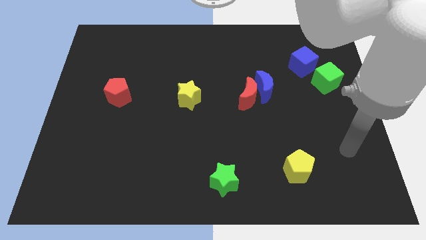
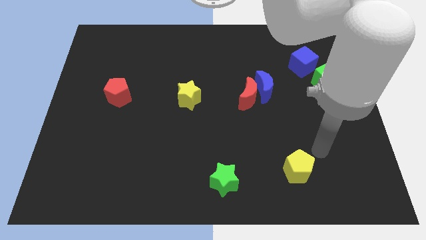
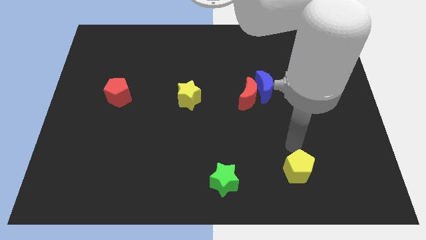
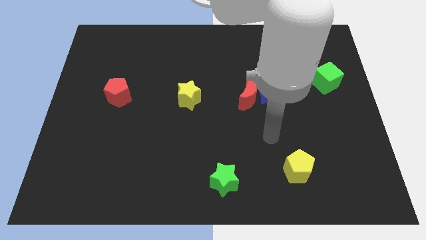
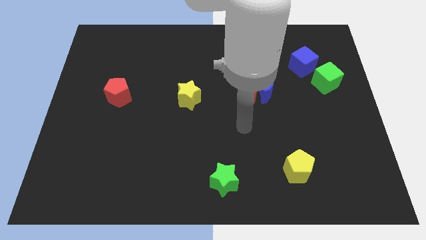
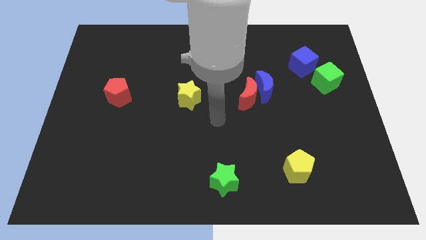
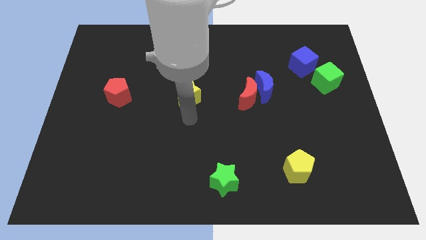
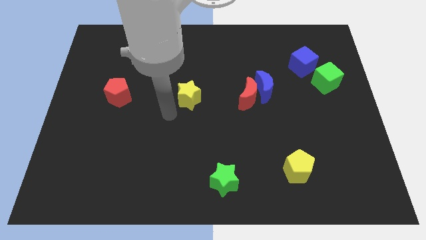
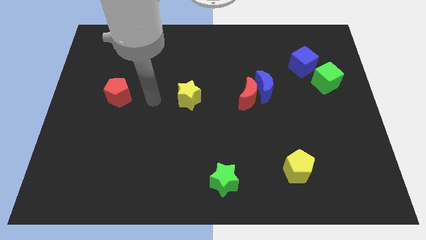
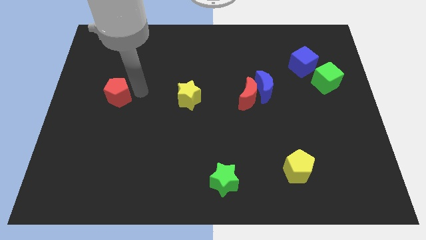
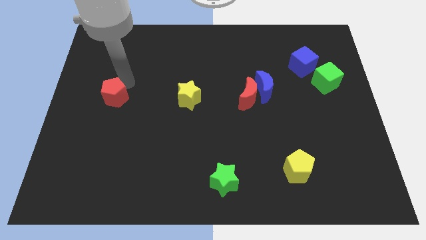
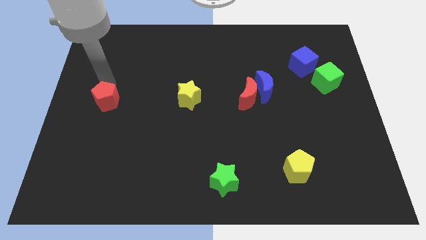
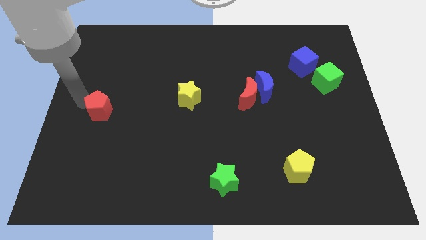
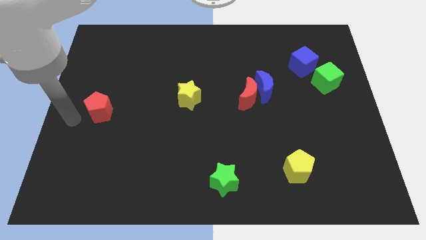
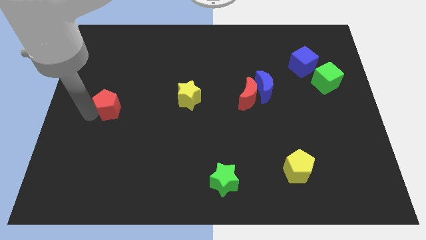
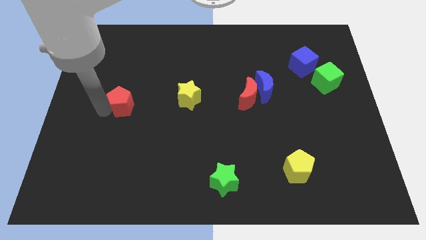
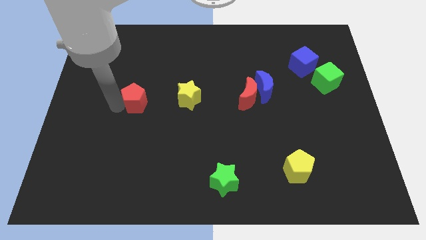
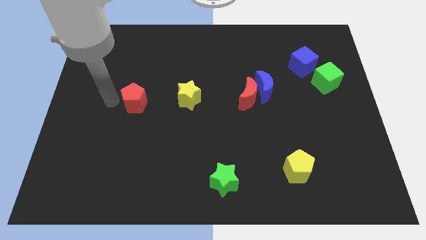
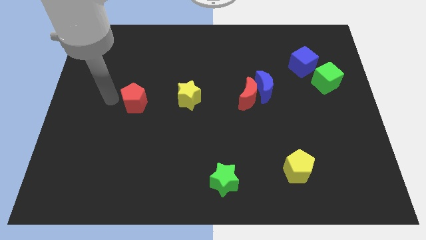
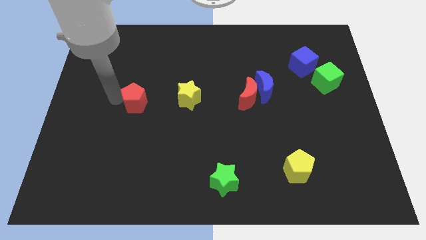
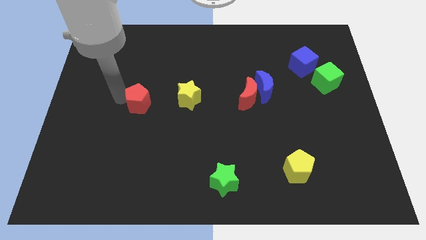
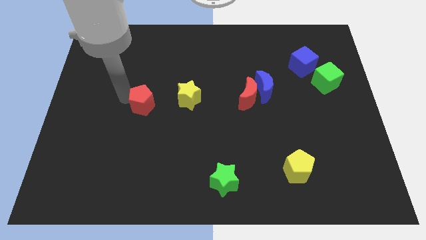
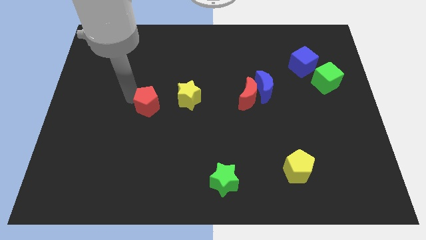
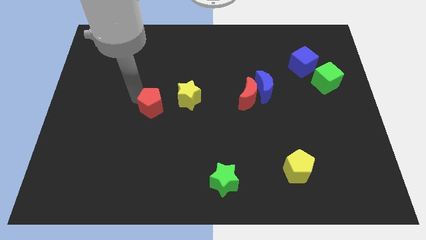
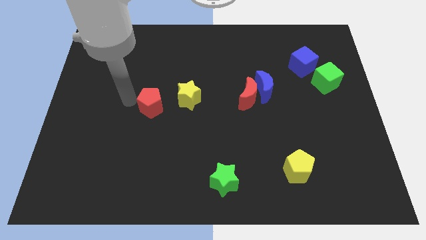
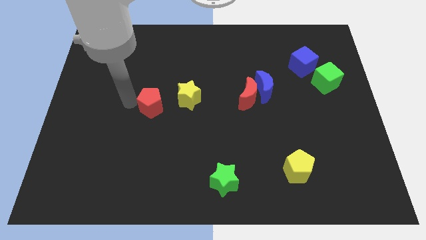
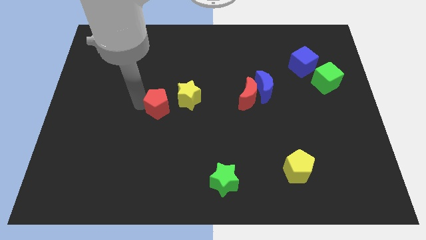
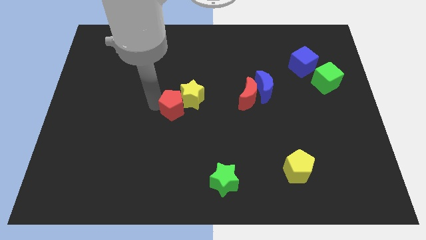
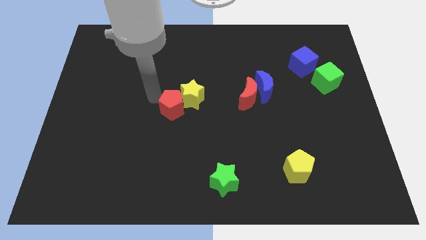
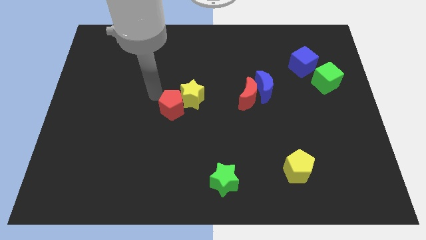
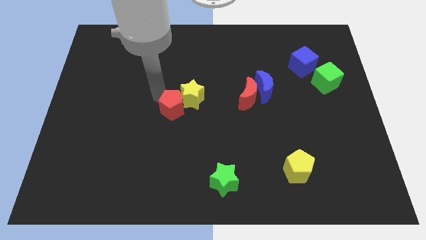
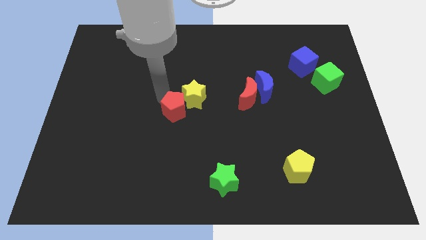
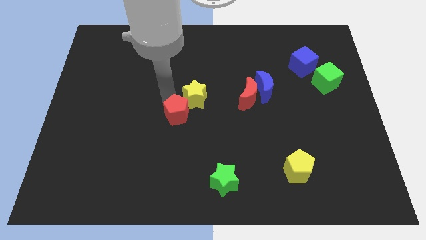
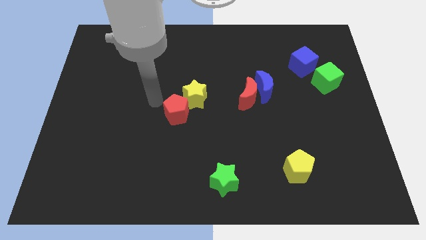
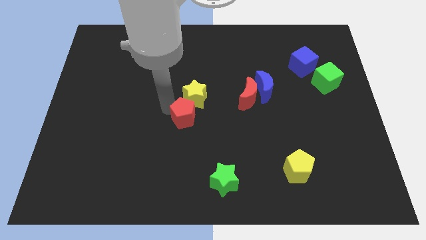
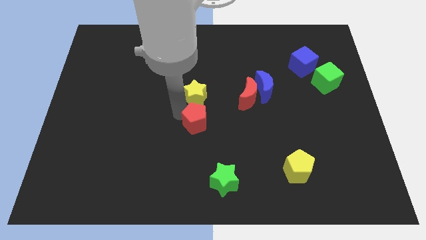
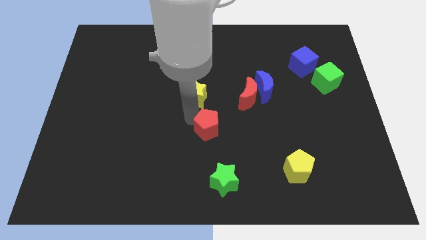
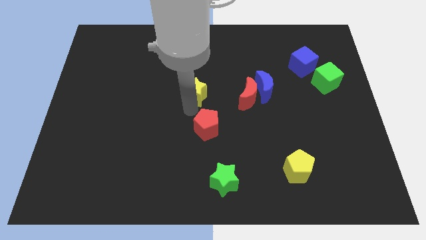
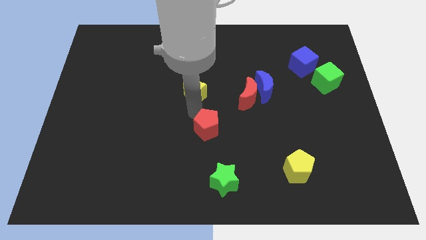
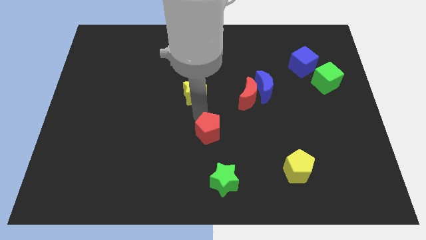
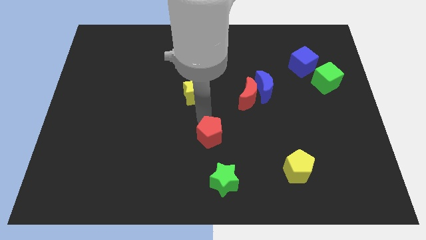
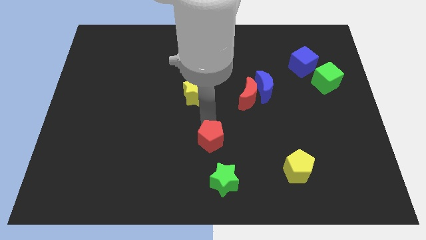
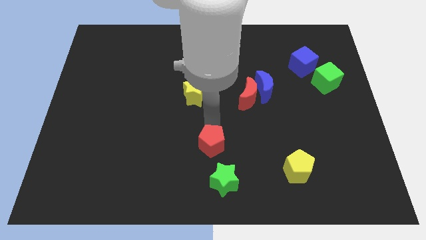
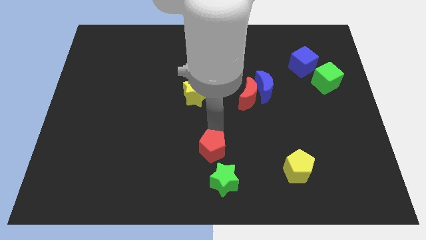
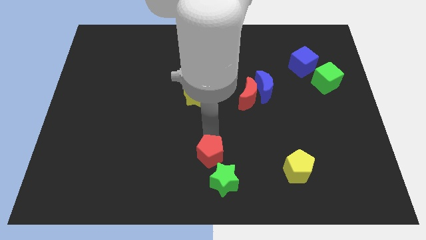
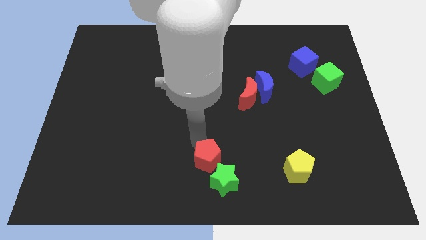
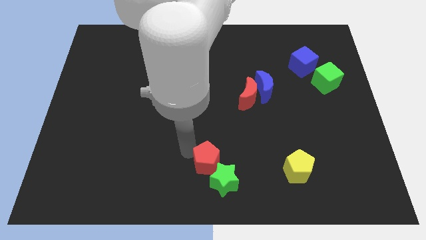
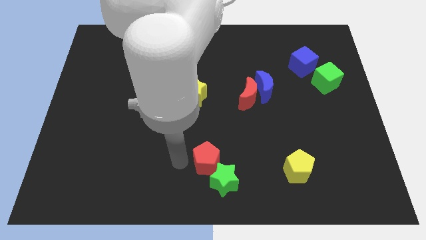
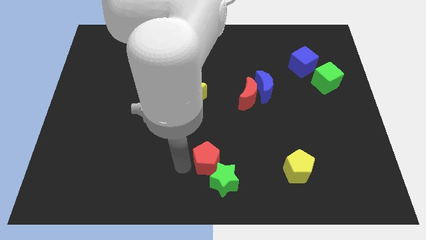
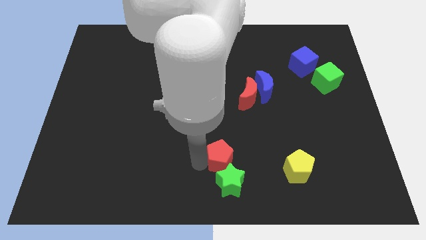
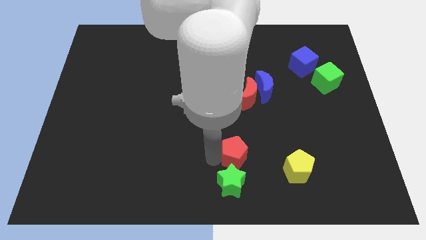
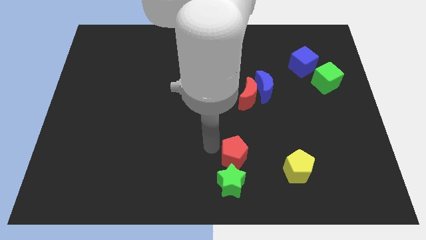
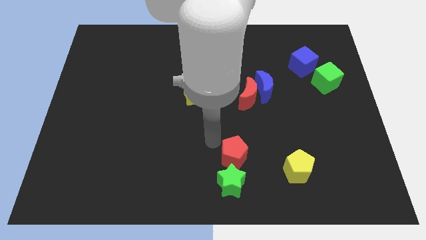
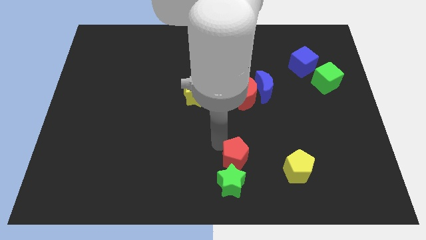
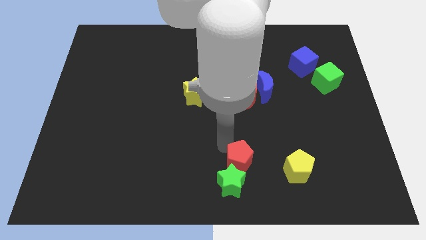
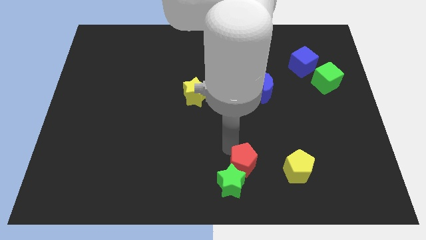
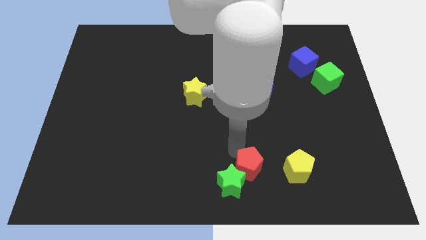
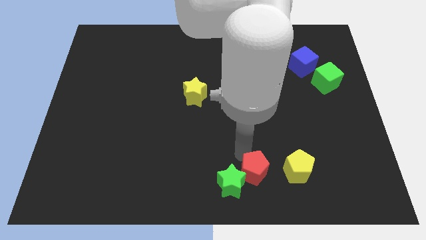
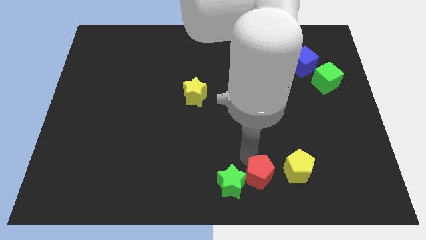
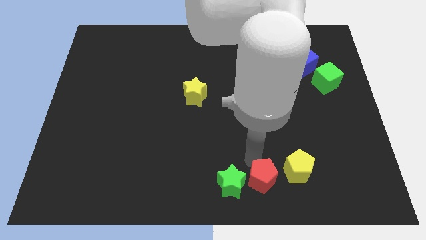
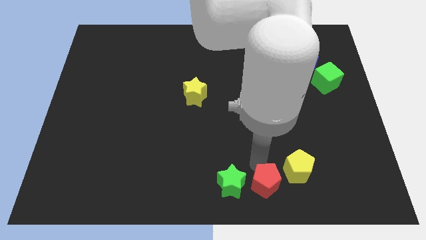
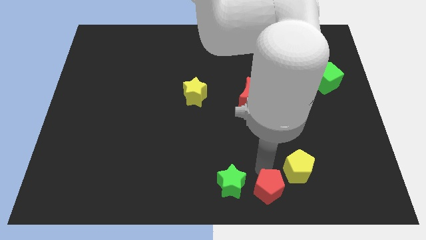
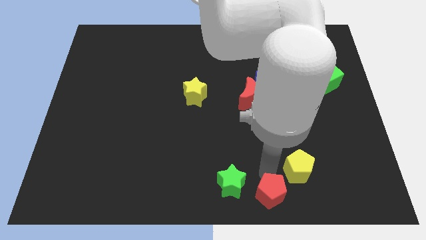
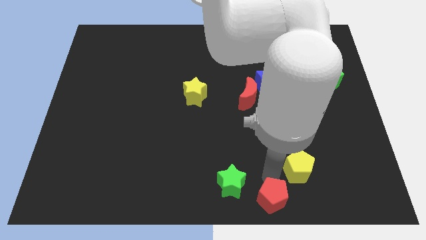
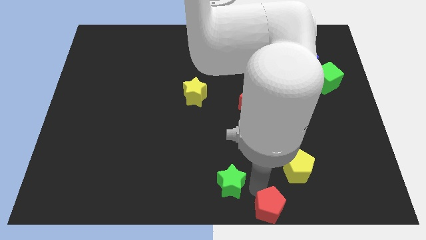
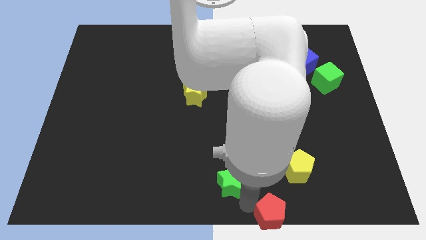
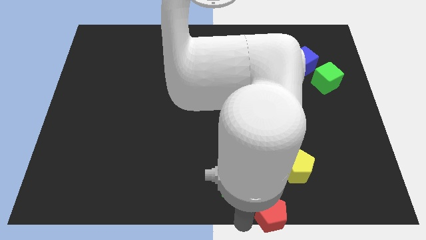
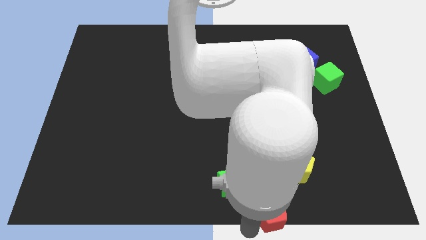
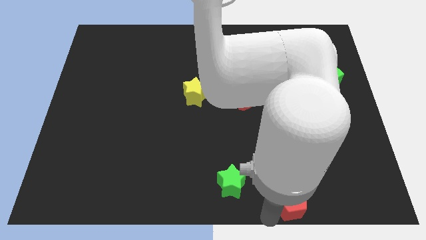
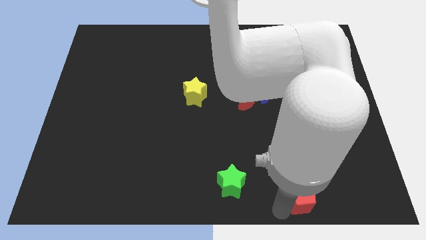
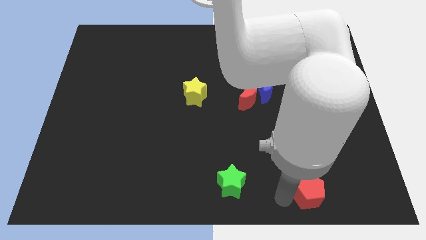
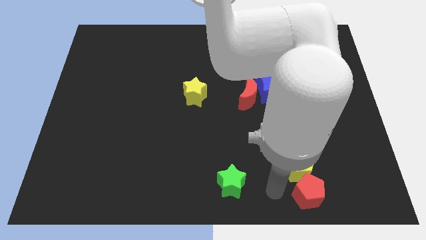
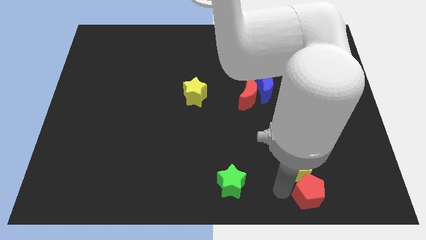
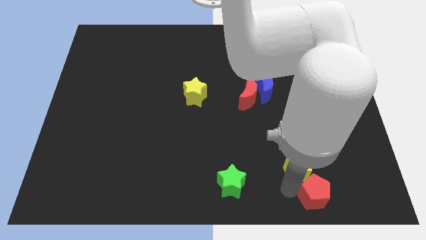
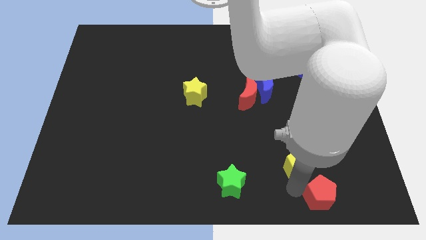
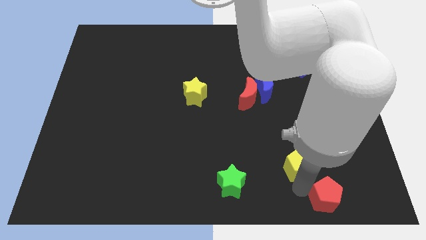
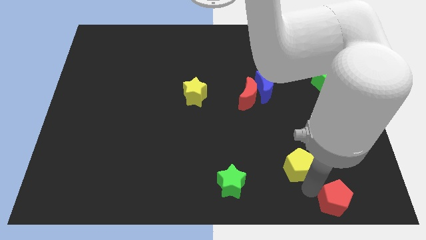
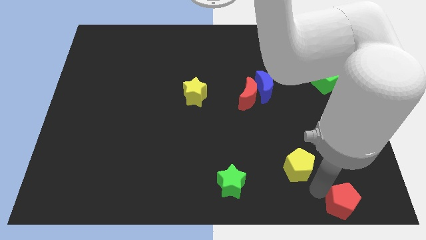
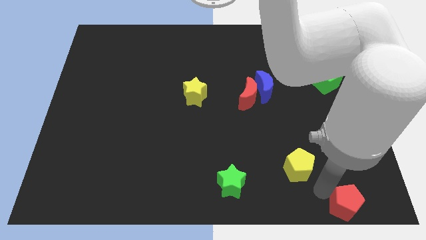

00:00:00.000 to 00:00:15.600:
move the red pentagon to the bottom right corner
